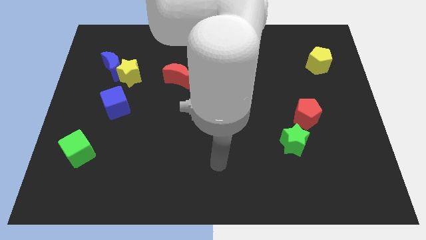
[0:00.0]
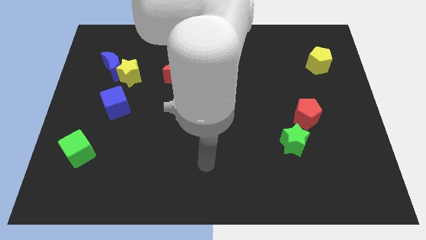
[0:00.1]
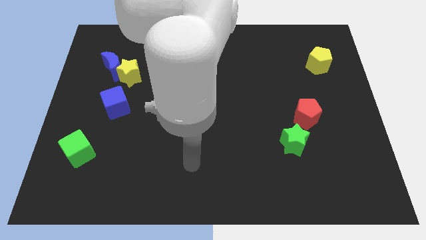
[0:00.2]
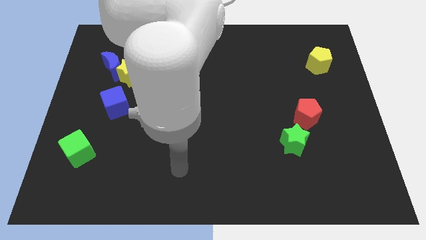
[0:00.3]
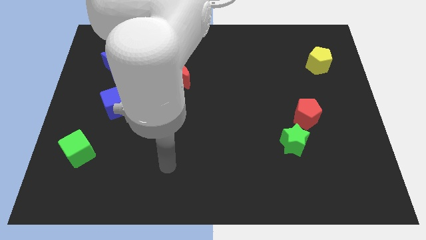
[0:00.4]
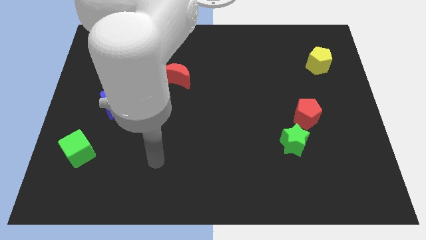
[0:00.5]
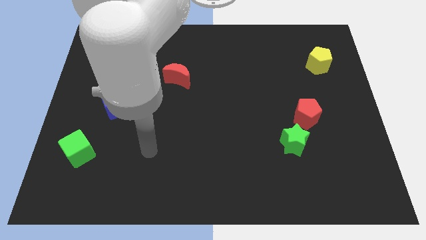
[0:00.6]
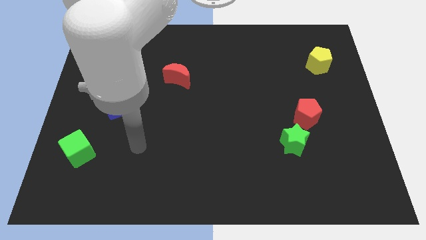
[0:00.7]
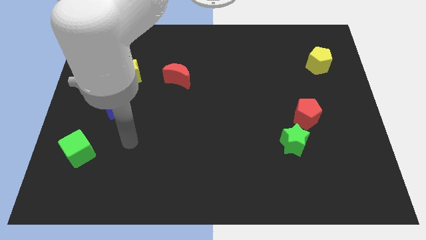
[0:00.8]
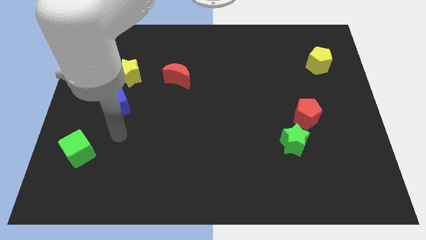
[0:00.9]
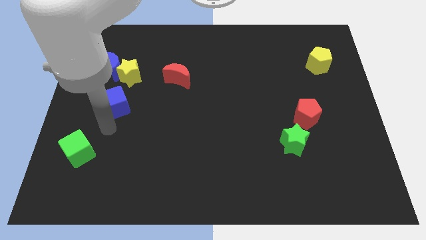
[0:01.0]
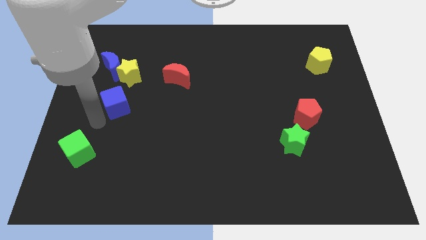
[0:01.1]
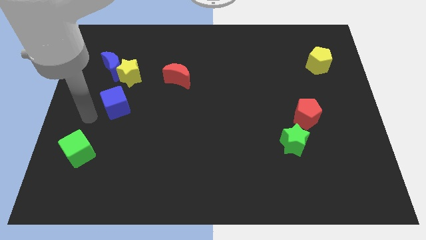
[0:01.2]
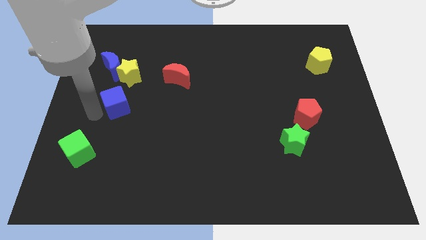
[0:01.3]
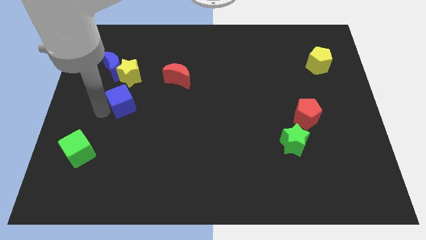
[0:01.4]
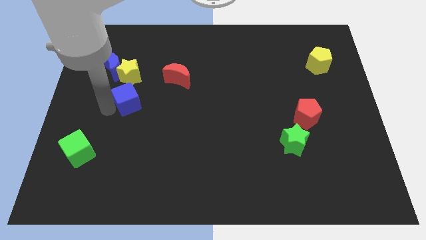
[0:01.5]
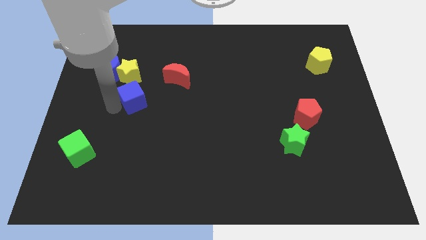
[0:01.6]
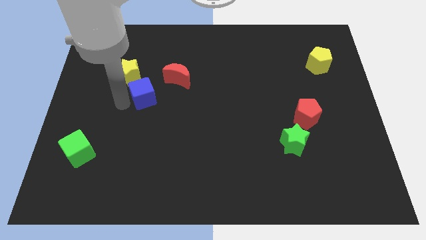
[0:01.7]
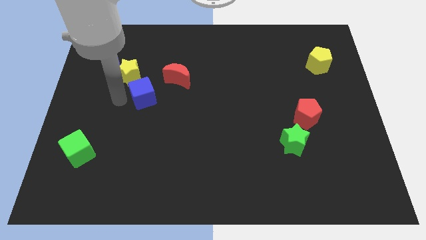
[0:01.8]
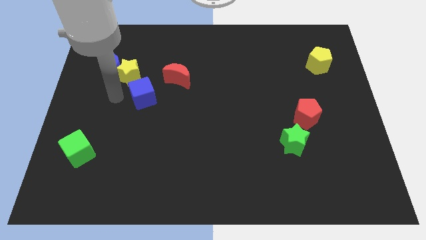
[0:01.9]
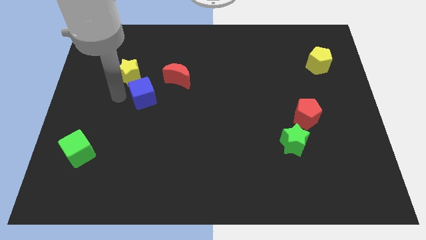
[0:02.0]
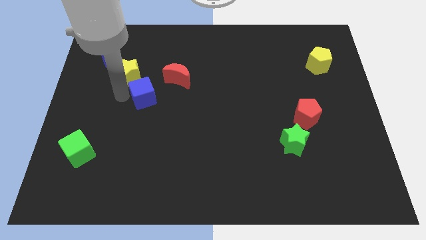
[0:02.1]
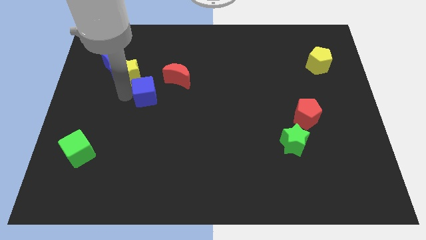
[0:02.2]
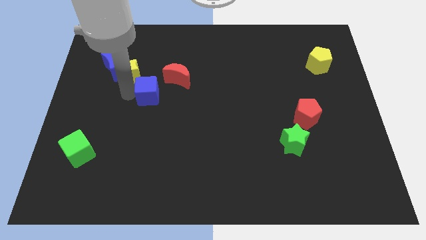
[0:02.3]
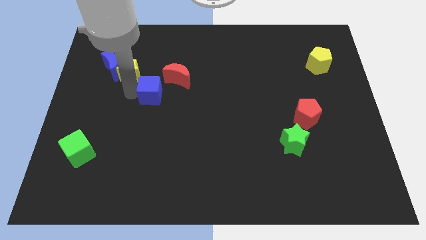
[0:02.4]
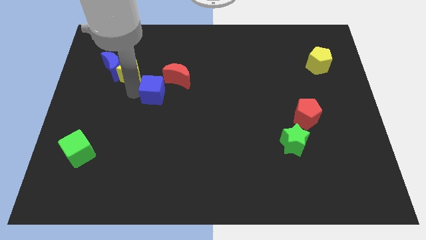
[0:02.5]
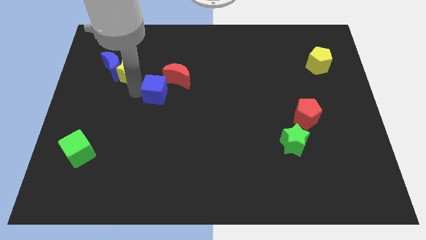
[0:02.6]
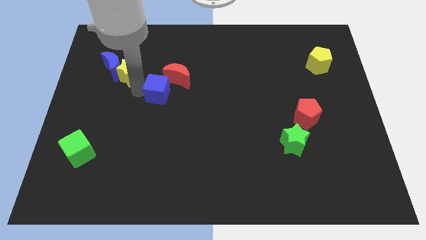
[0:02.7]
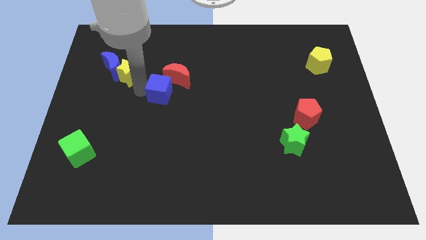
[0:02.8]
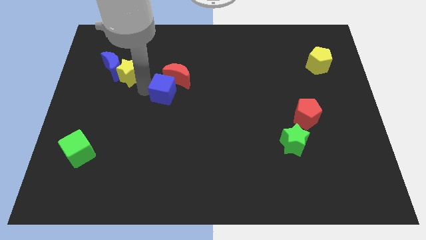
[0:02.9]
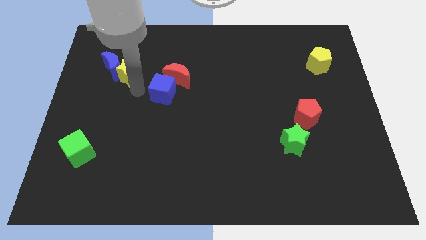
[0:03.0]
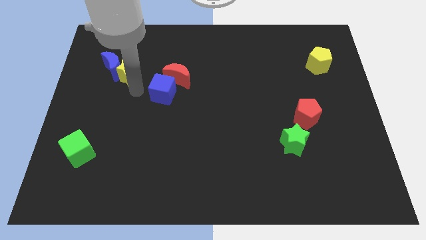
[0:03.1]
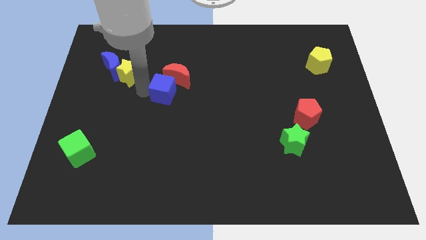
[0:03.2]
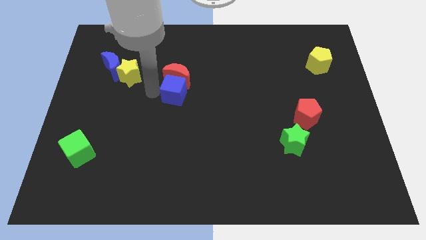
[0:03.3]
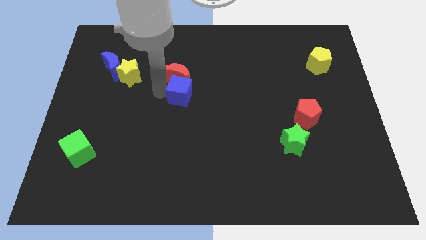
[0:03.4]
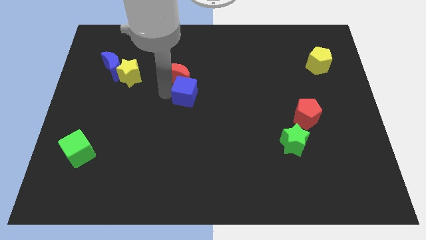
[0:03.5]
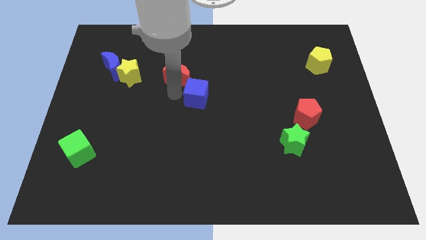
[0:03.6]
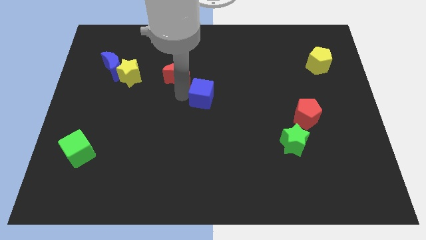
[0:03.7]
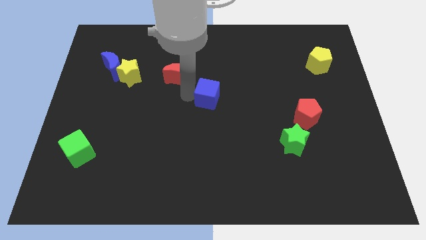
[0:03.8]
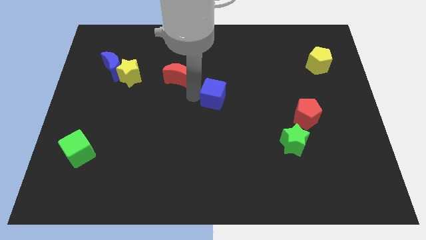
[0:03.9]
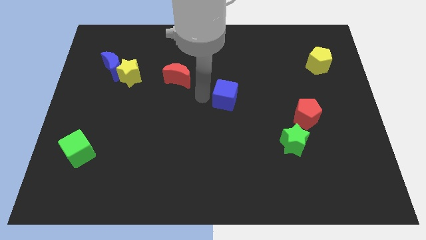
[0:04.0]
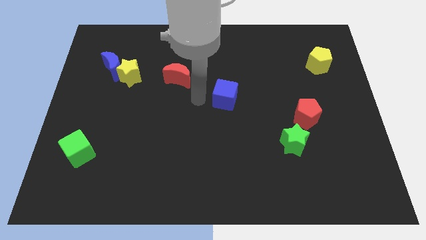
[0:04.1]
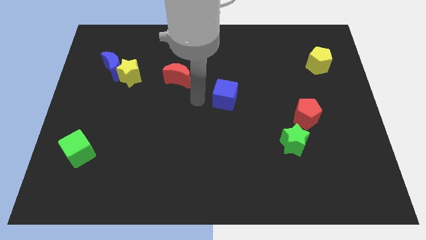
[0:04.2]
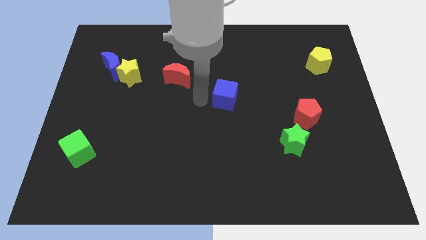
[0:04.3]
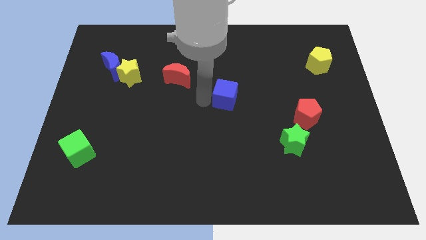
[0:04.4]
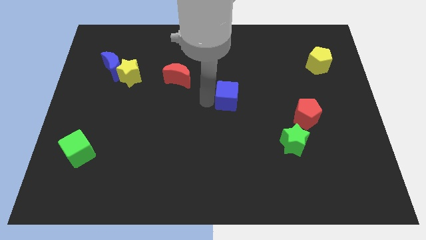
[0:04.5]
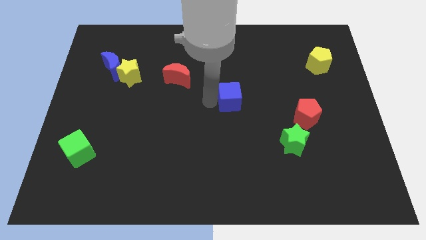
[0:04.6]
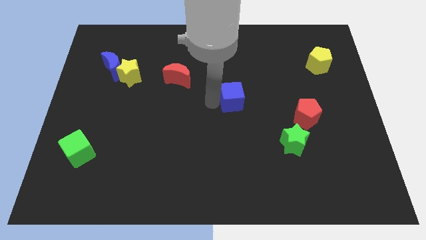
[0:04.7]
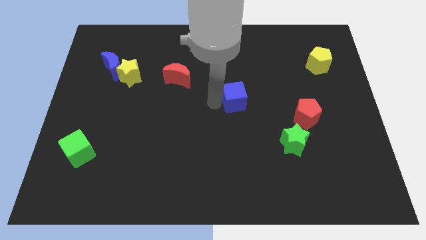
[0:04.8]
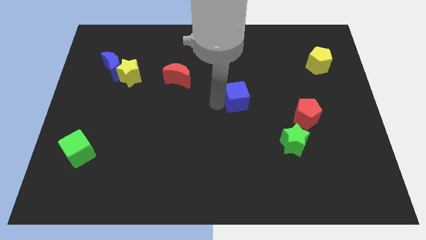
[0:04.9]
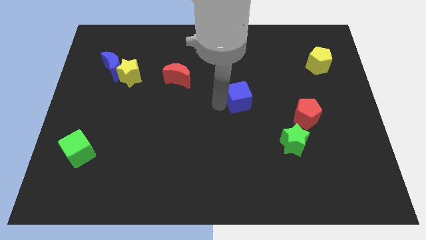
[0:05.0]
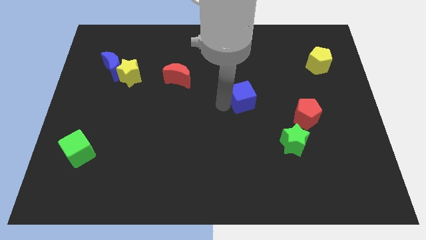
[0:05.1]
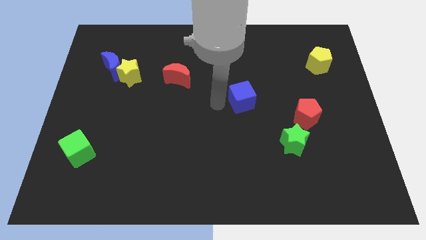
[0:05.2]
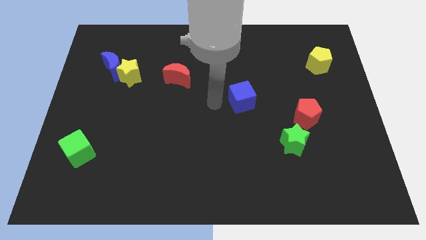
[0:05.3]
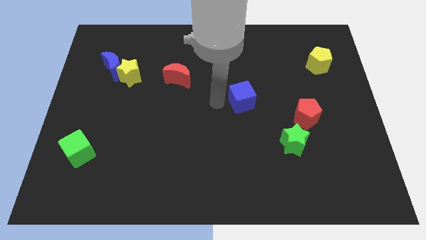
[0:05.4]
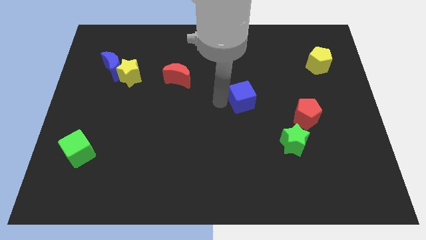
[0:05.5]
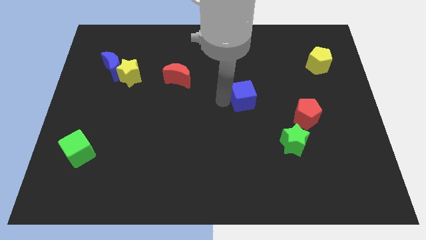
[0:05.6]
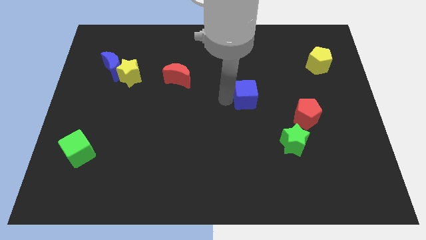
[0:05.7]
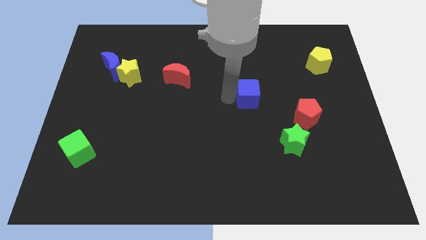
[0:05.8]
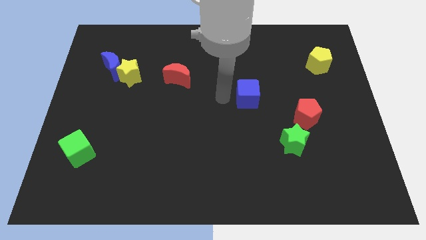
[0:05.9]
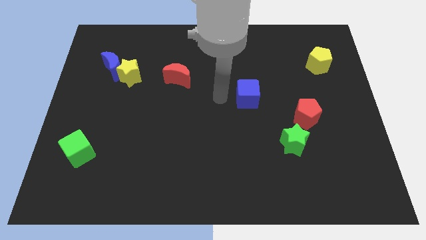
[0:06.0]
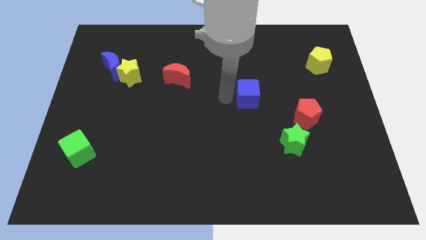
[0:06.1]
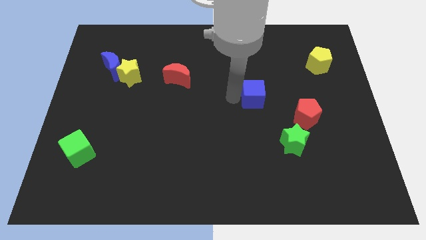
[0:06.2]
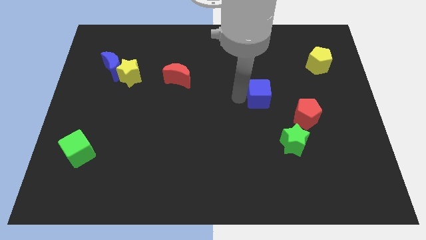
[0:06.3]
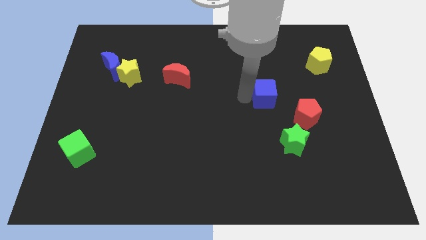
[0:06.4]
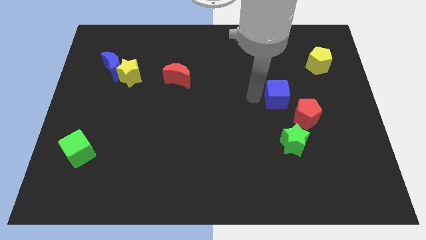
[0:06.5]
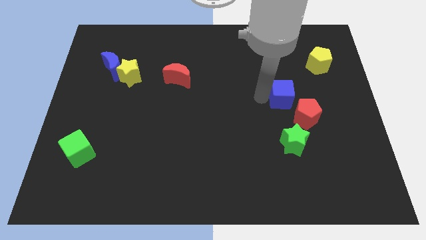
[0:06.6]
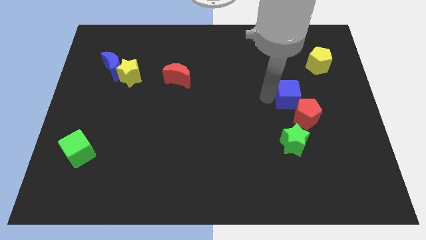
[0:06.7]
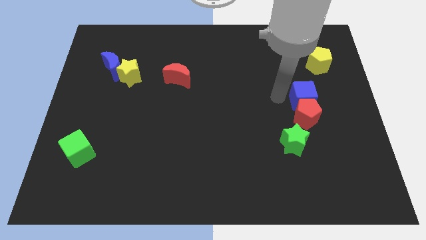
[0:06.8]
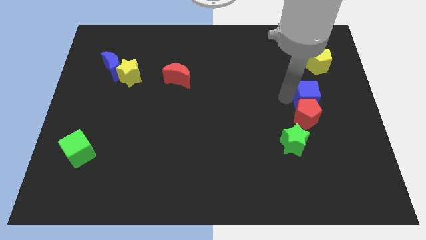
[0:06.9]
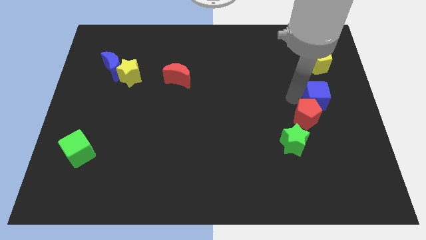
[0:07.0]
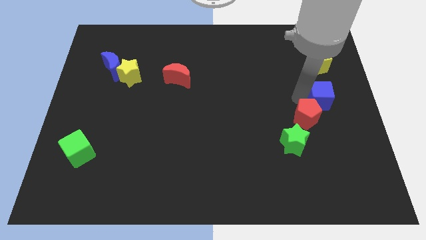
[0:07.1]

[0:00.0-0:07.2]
move the blue cube to the right side
